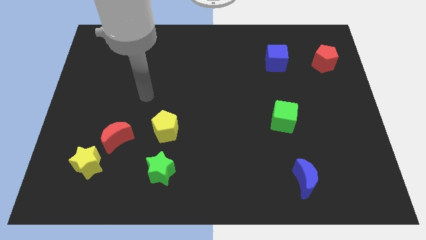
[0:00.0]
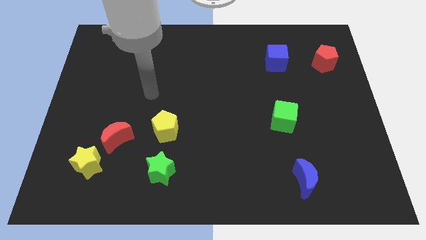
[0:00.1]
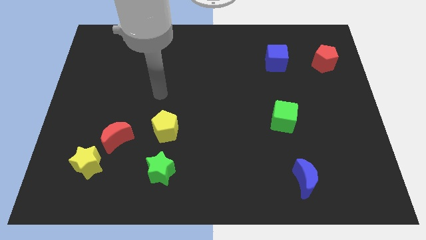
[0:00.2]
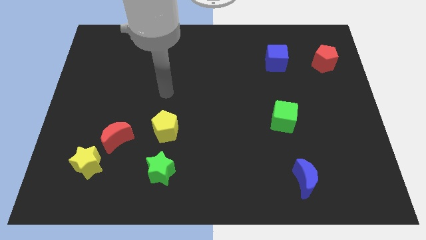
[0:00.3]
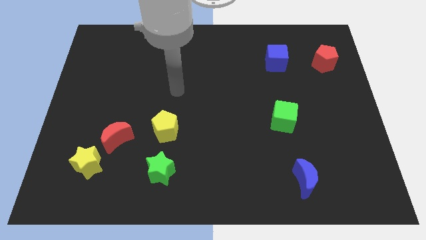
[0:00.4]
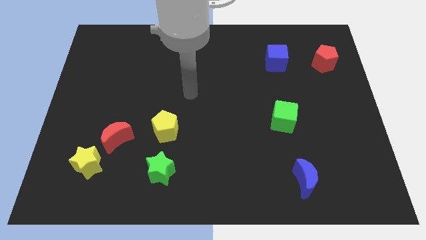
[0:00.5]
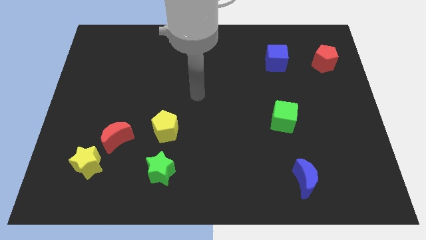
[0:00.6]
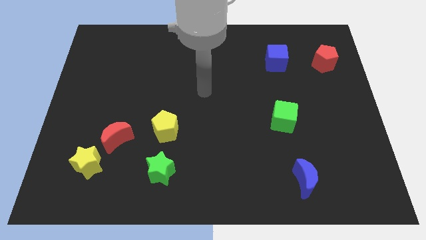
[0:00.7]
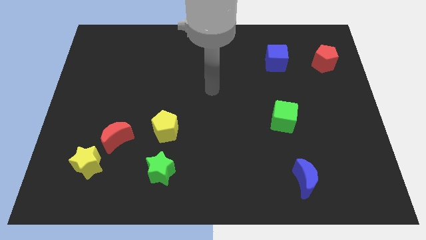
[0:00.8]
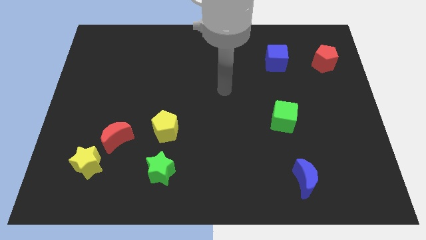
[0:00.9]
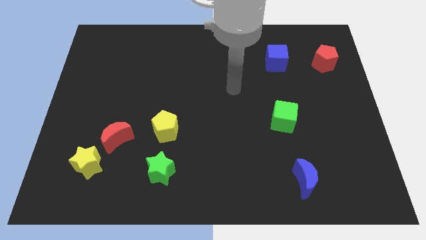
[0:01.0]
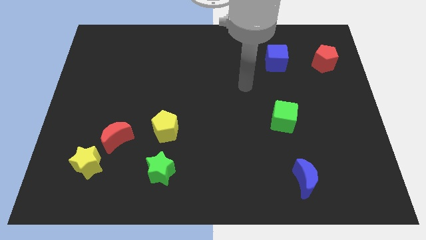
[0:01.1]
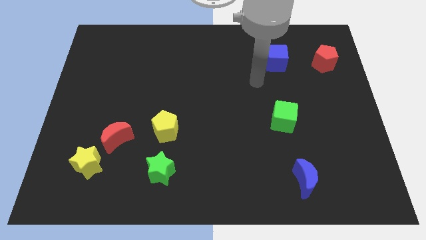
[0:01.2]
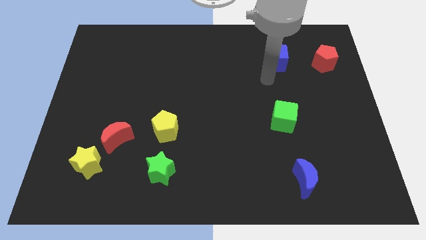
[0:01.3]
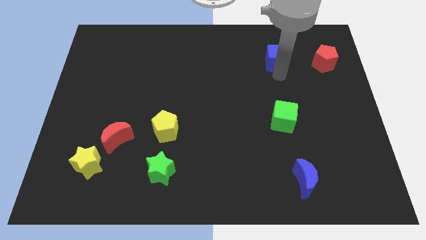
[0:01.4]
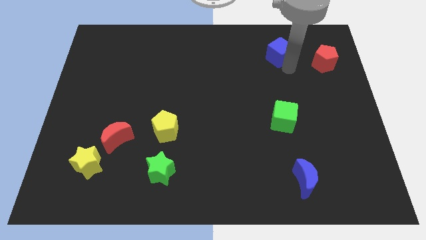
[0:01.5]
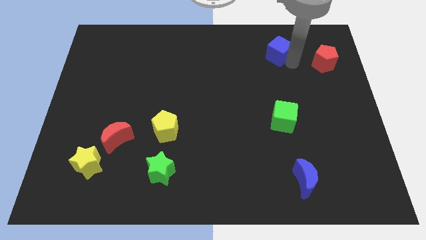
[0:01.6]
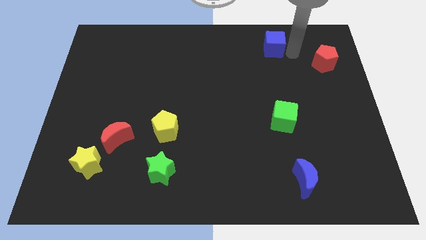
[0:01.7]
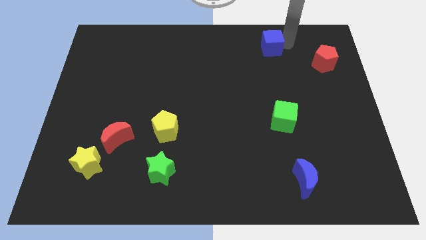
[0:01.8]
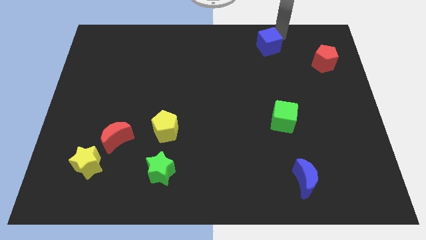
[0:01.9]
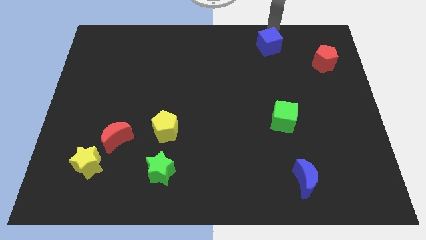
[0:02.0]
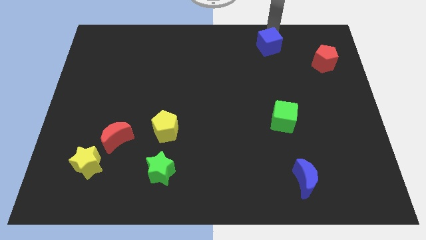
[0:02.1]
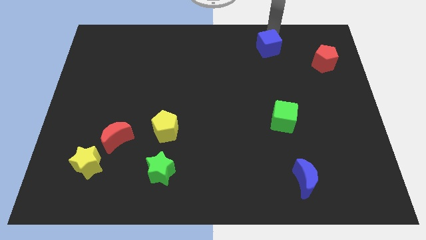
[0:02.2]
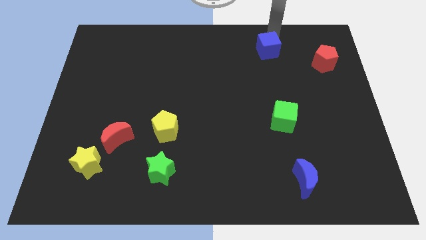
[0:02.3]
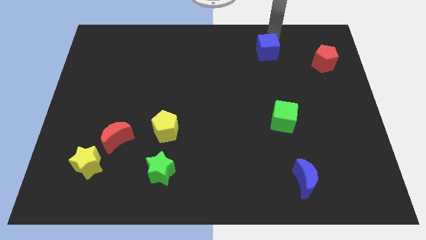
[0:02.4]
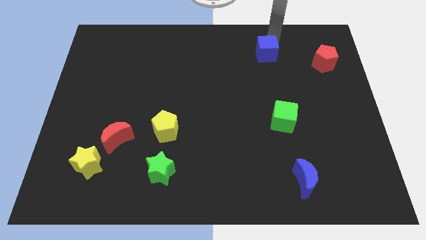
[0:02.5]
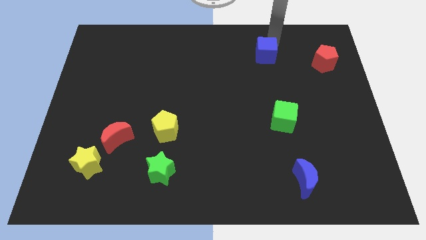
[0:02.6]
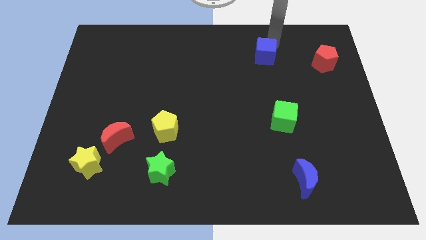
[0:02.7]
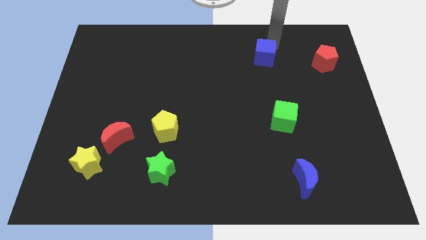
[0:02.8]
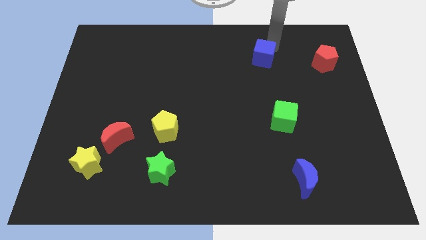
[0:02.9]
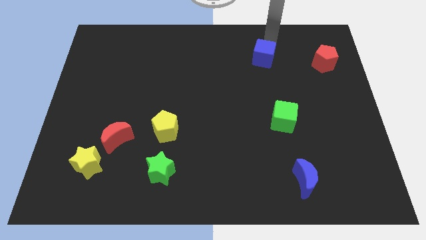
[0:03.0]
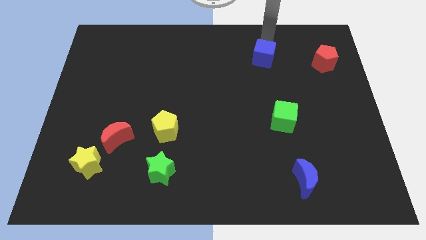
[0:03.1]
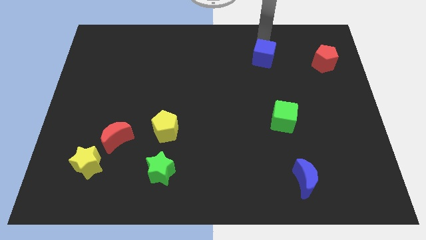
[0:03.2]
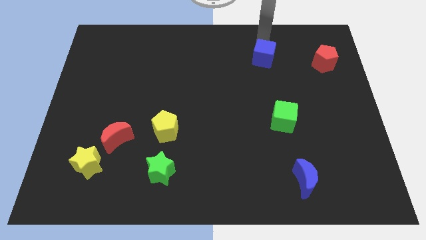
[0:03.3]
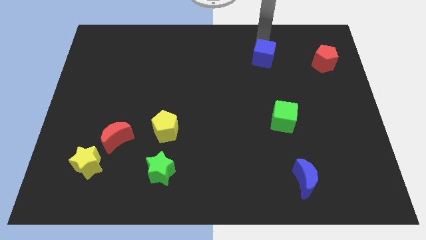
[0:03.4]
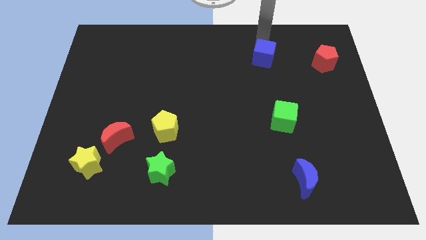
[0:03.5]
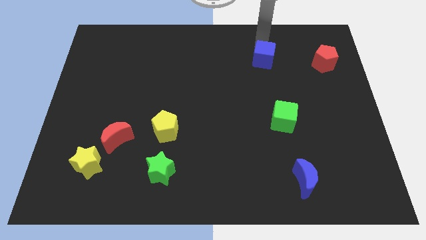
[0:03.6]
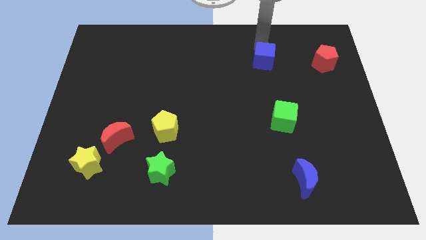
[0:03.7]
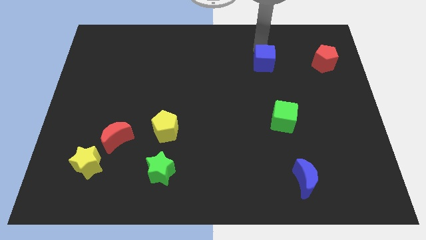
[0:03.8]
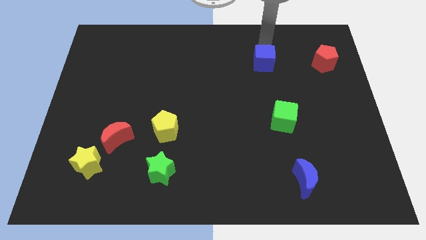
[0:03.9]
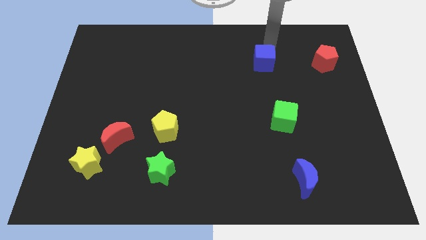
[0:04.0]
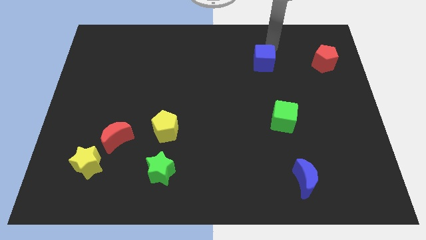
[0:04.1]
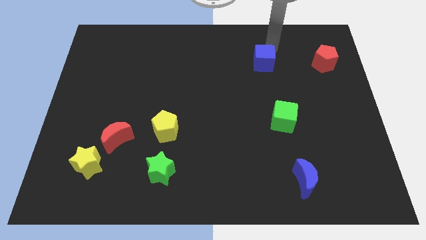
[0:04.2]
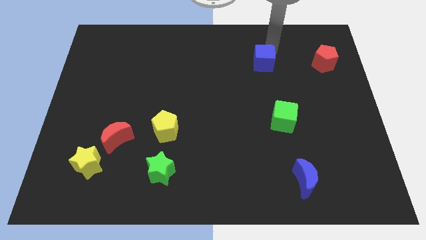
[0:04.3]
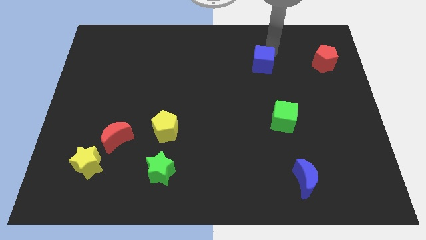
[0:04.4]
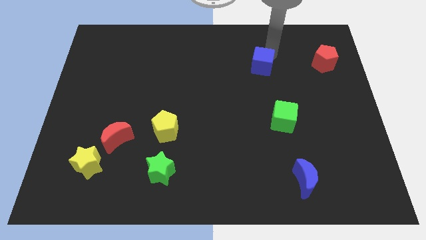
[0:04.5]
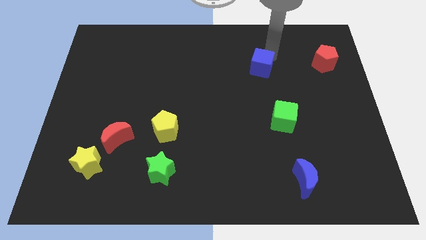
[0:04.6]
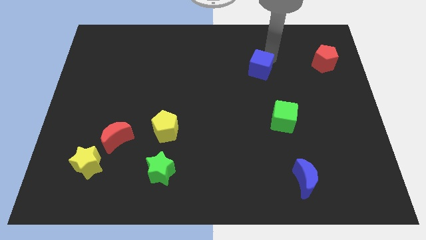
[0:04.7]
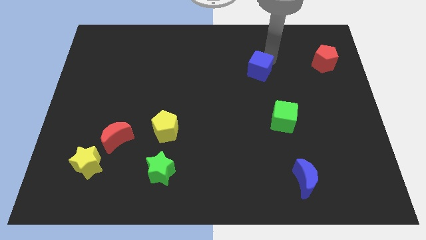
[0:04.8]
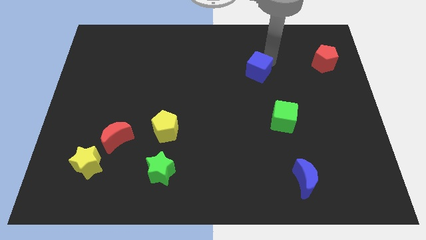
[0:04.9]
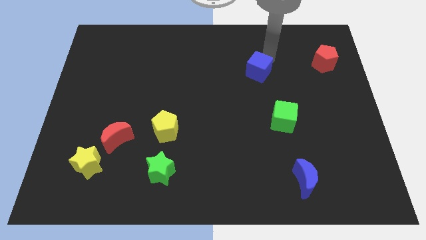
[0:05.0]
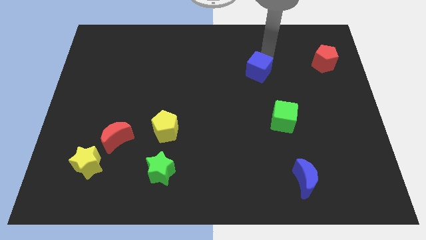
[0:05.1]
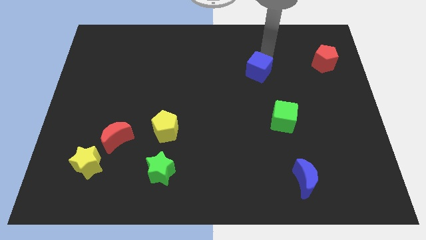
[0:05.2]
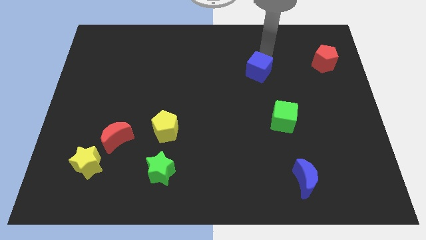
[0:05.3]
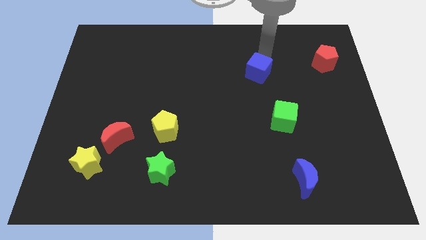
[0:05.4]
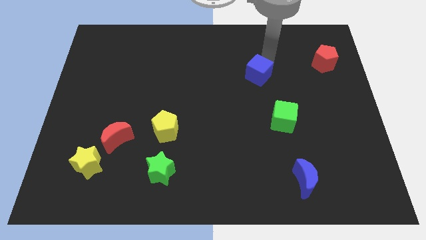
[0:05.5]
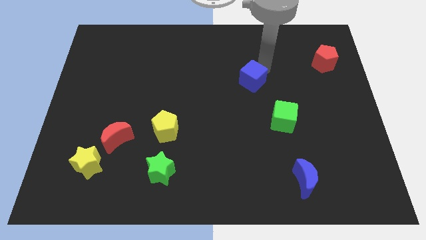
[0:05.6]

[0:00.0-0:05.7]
slightly move the blue cube down and to the left

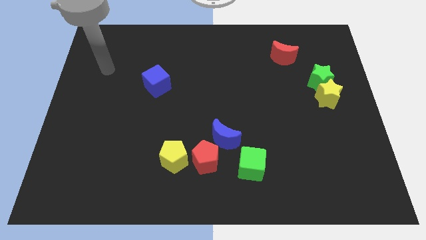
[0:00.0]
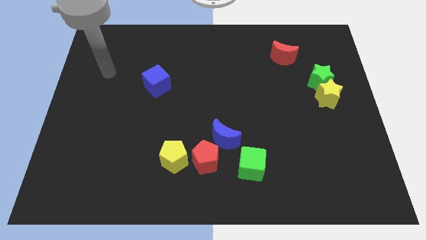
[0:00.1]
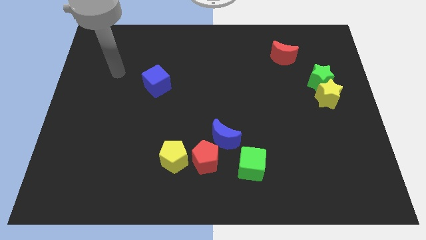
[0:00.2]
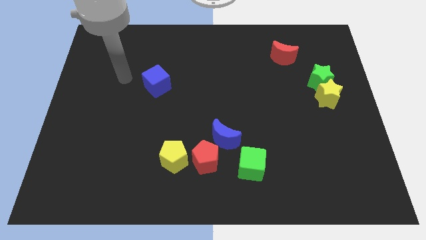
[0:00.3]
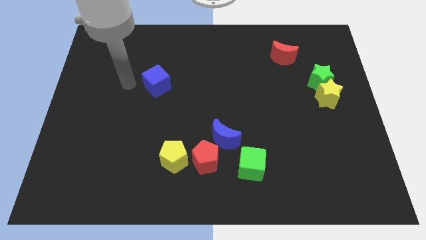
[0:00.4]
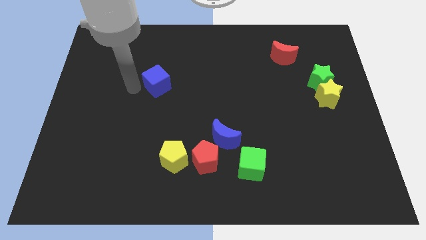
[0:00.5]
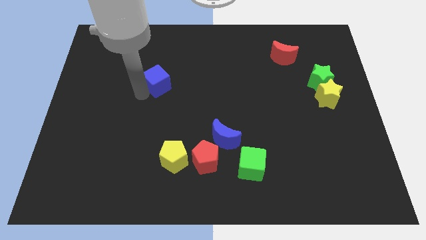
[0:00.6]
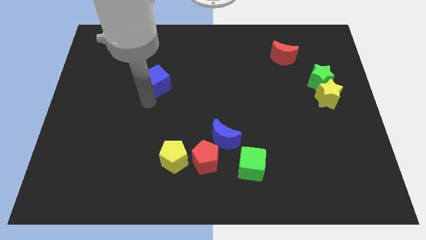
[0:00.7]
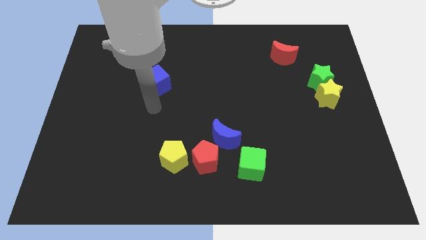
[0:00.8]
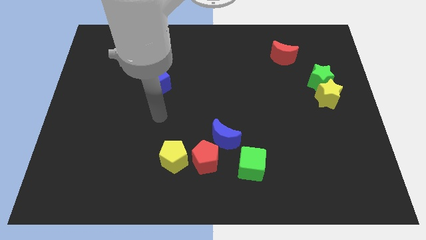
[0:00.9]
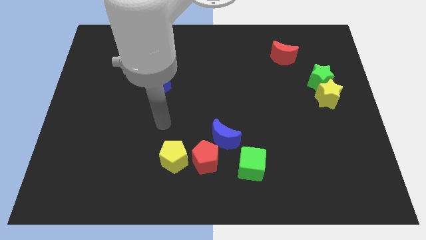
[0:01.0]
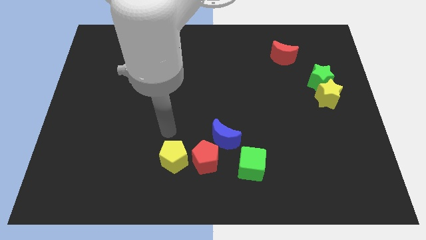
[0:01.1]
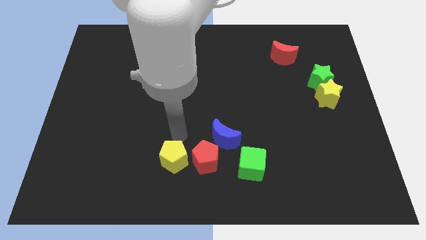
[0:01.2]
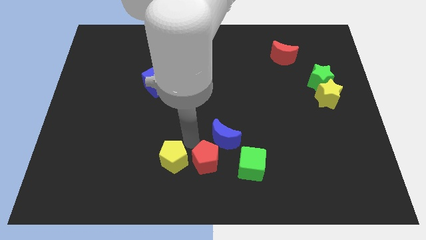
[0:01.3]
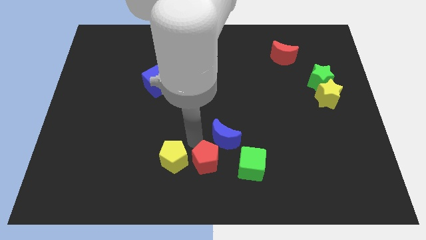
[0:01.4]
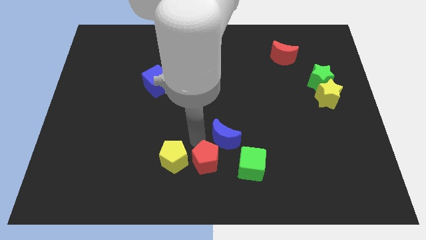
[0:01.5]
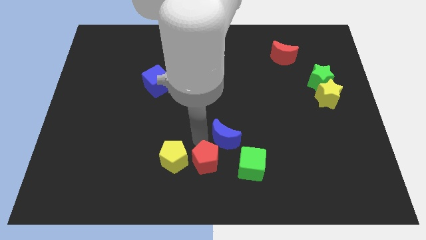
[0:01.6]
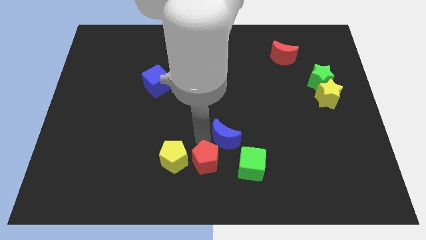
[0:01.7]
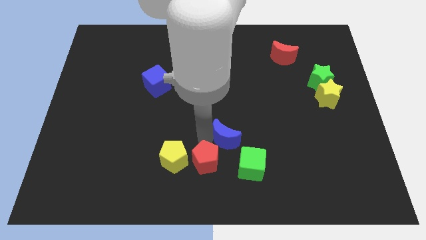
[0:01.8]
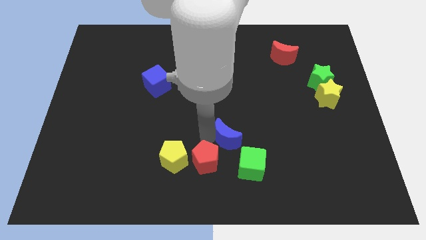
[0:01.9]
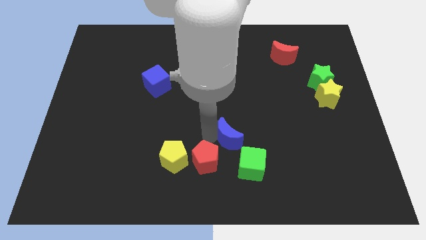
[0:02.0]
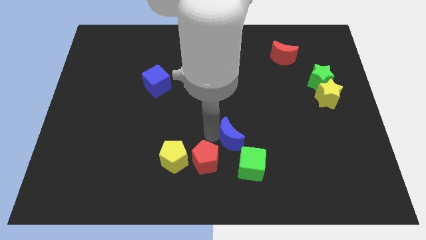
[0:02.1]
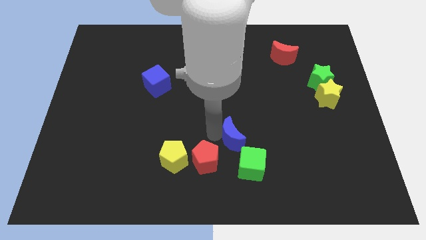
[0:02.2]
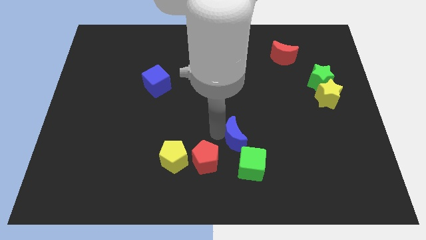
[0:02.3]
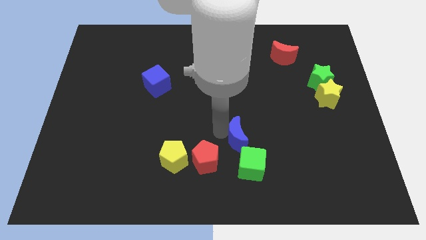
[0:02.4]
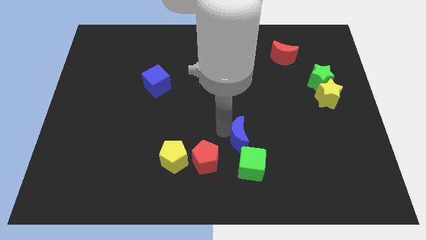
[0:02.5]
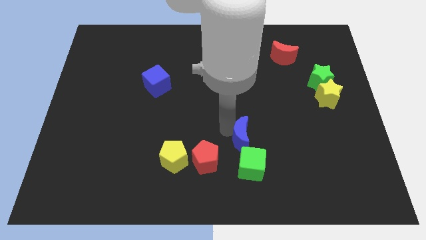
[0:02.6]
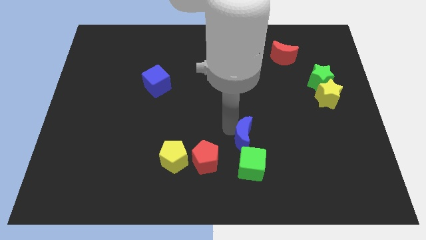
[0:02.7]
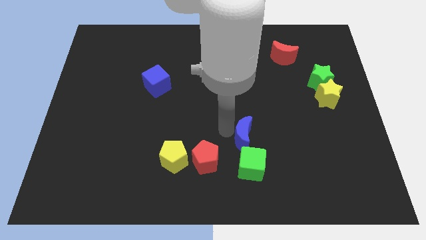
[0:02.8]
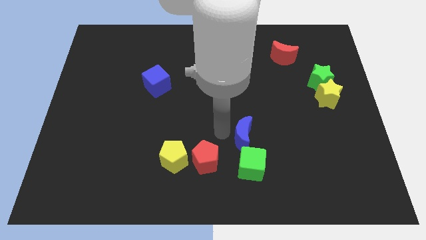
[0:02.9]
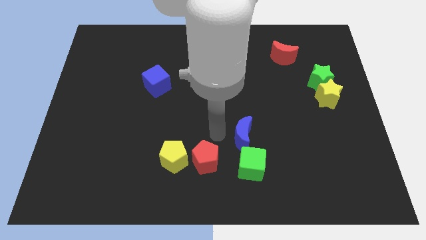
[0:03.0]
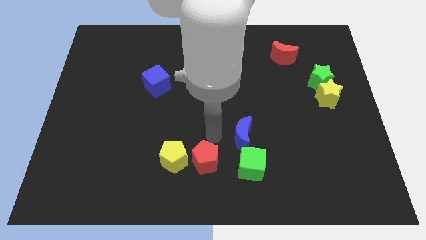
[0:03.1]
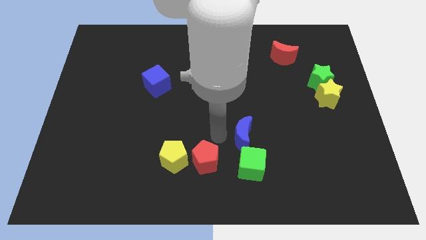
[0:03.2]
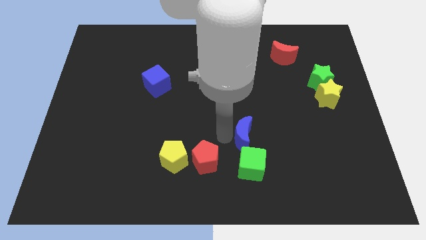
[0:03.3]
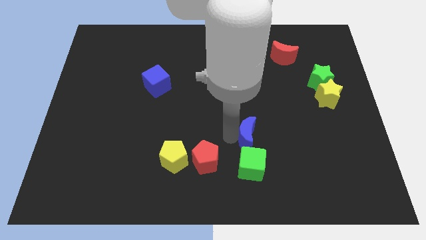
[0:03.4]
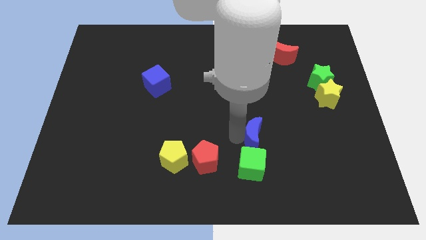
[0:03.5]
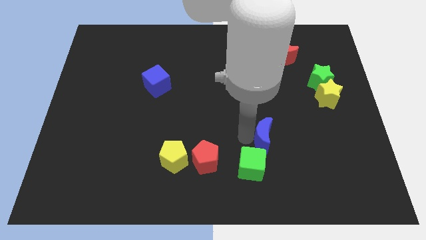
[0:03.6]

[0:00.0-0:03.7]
slightly move the blue moon right
